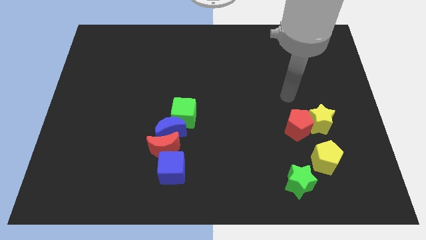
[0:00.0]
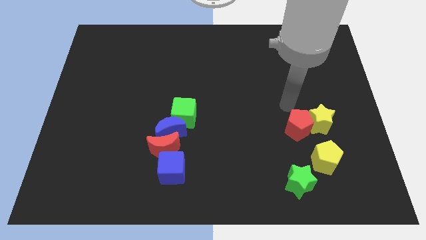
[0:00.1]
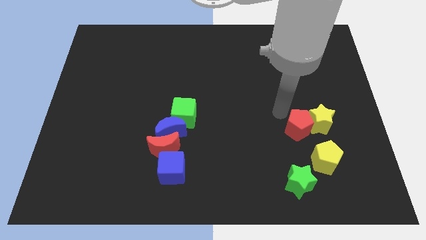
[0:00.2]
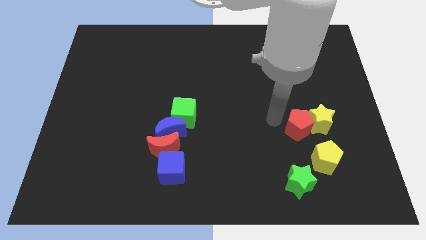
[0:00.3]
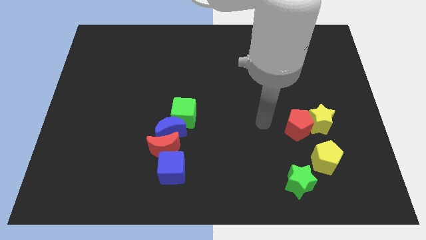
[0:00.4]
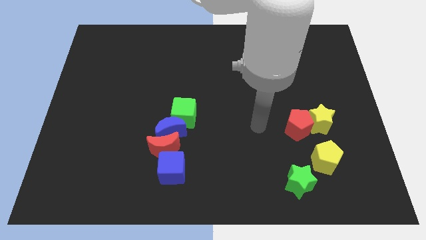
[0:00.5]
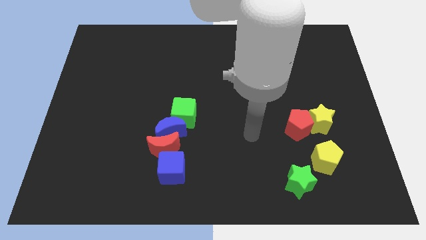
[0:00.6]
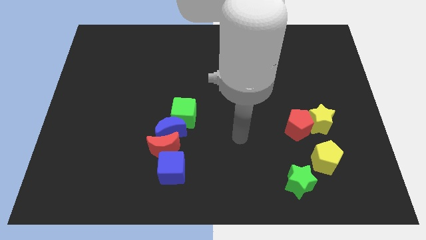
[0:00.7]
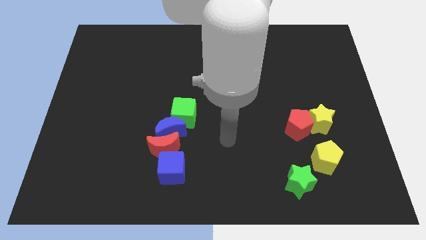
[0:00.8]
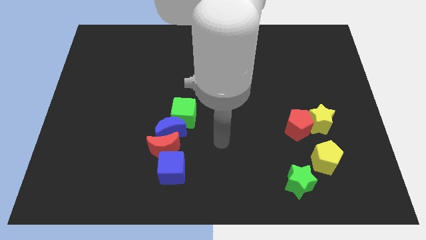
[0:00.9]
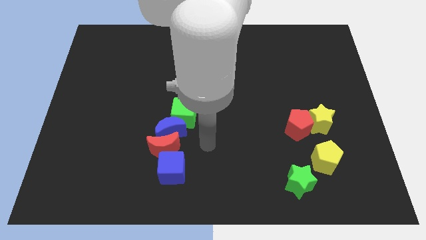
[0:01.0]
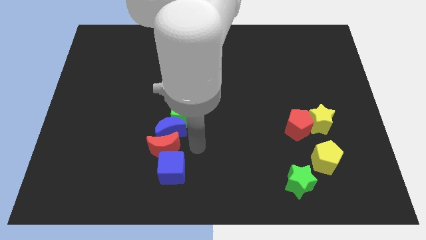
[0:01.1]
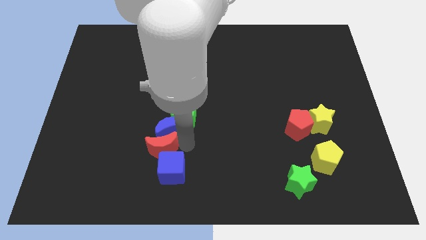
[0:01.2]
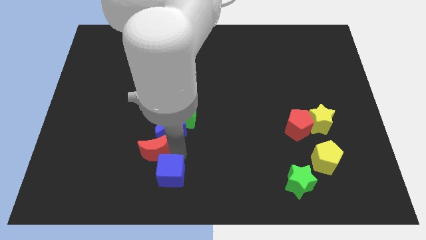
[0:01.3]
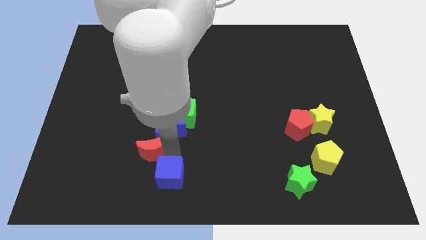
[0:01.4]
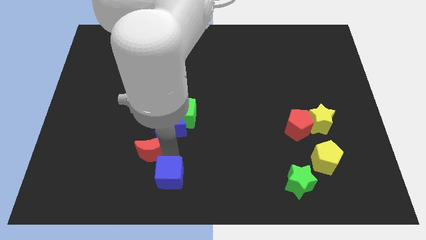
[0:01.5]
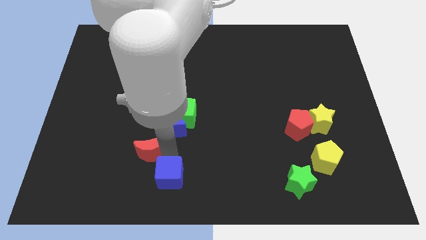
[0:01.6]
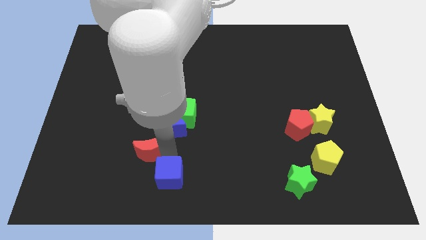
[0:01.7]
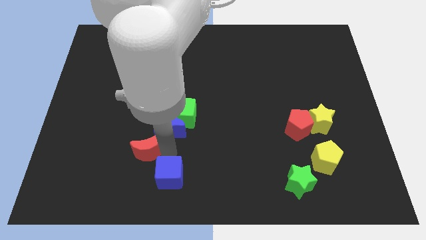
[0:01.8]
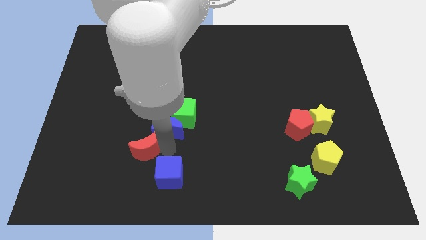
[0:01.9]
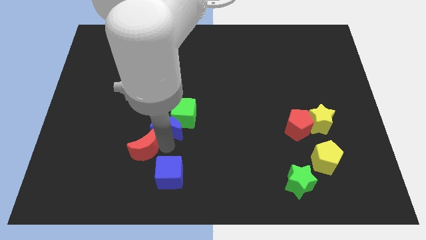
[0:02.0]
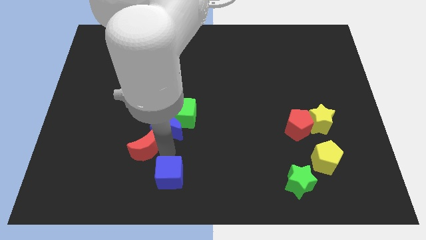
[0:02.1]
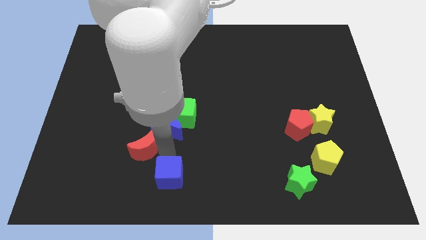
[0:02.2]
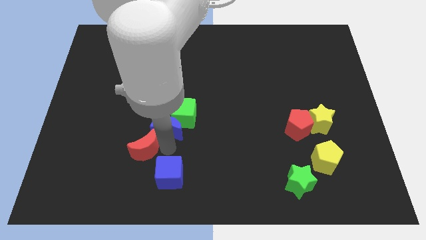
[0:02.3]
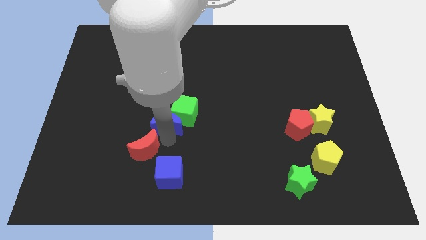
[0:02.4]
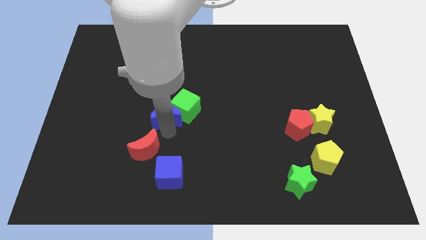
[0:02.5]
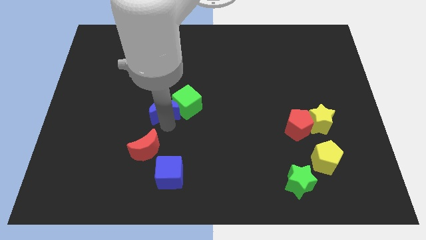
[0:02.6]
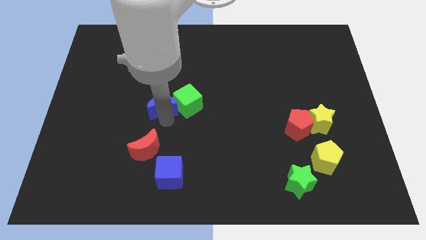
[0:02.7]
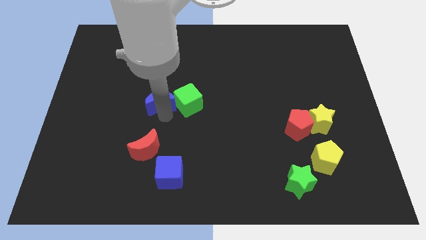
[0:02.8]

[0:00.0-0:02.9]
move the blue moon away from the red moon, green cube, and blue cube

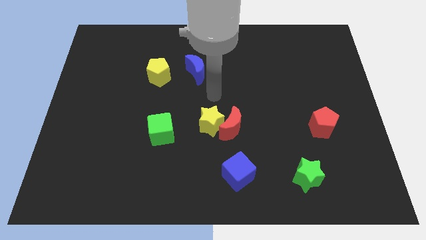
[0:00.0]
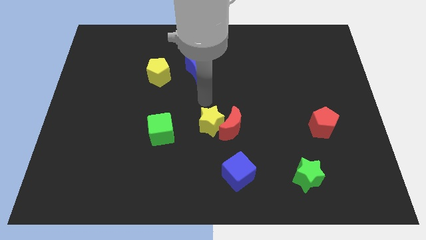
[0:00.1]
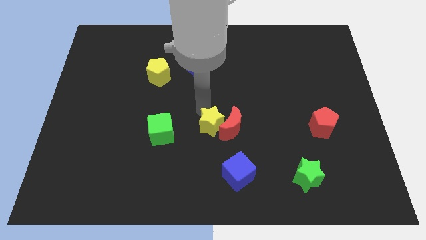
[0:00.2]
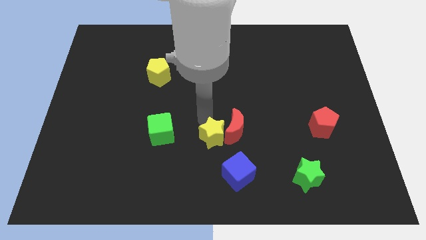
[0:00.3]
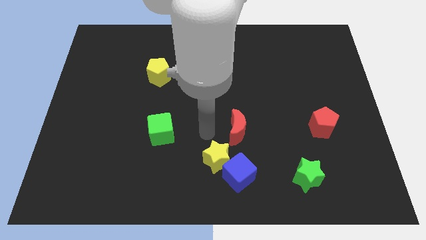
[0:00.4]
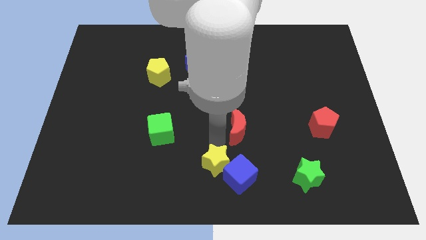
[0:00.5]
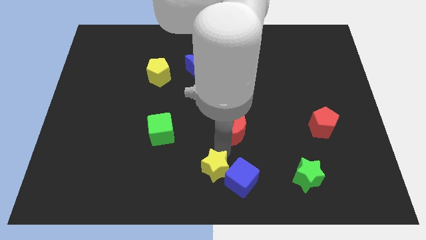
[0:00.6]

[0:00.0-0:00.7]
separate the red moon from the yellow star

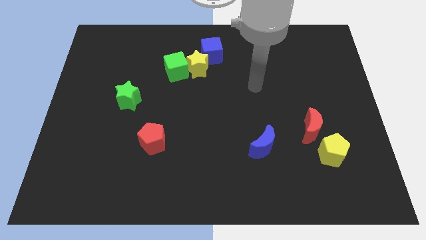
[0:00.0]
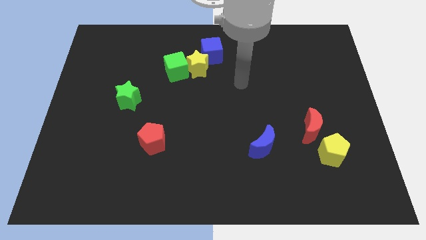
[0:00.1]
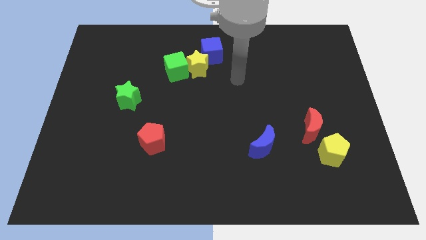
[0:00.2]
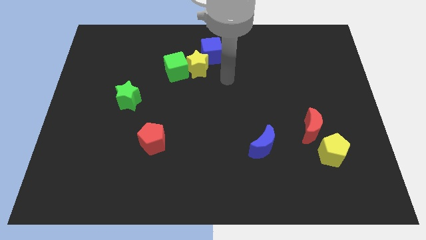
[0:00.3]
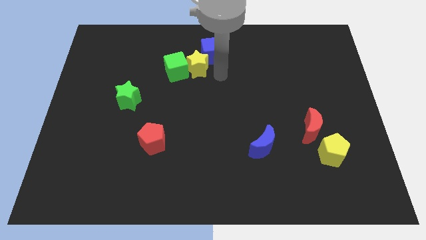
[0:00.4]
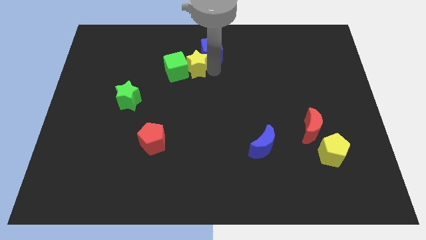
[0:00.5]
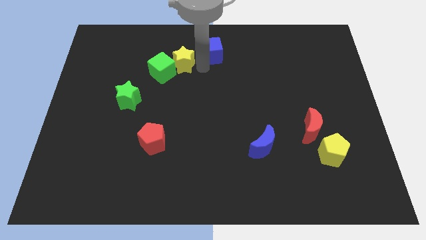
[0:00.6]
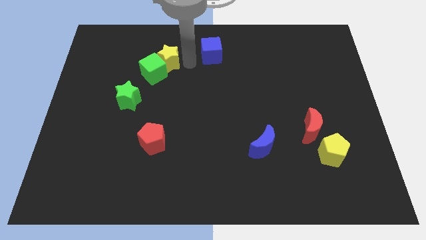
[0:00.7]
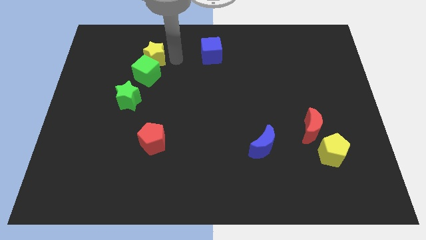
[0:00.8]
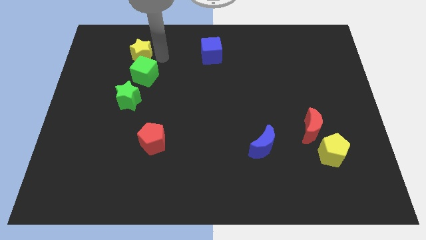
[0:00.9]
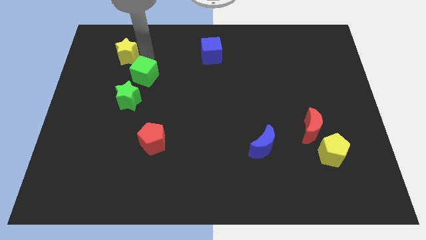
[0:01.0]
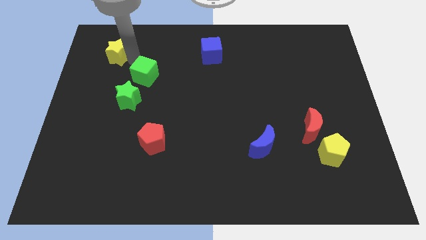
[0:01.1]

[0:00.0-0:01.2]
move the green cube away from the yellow star

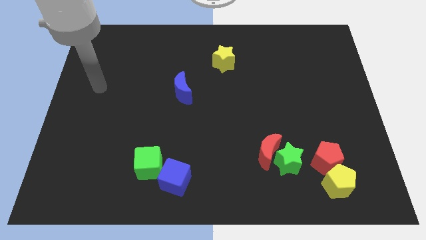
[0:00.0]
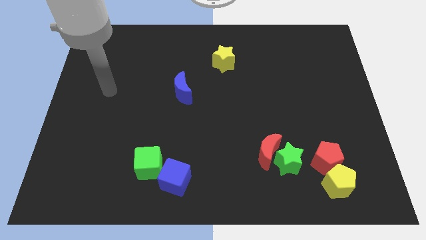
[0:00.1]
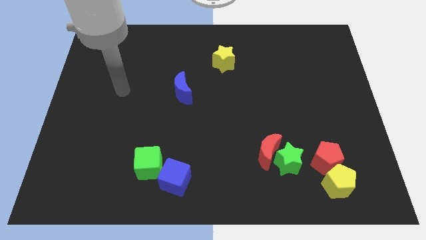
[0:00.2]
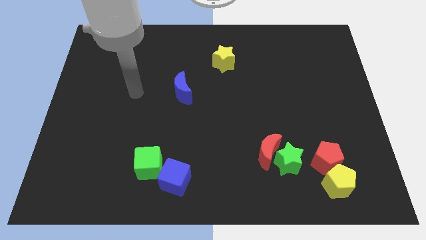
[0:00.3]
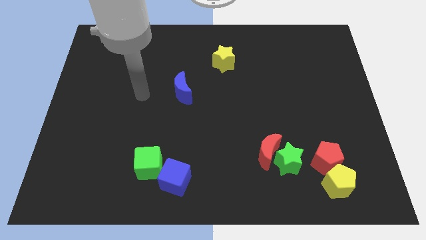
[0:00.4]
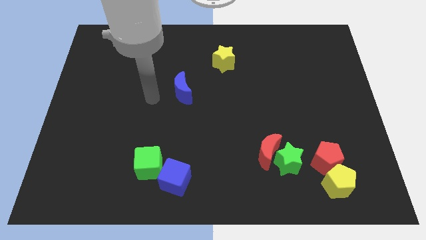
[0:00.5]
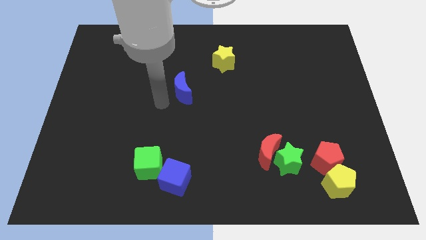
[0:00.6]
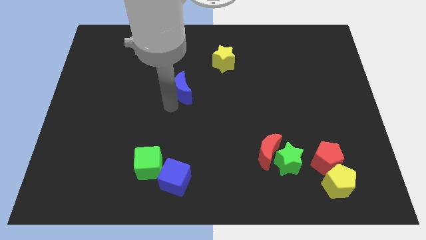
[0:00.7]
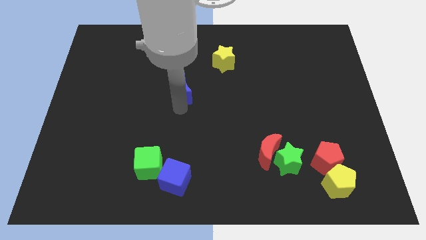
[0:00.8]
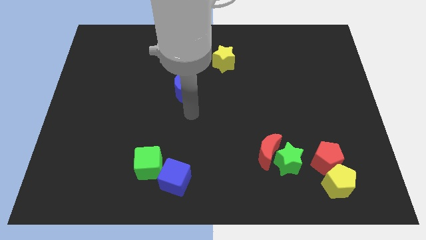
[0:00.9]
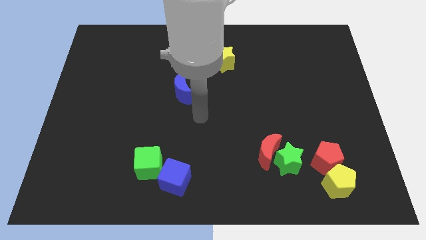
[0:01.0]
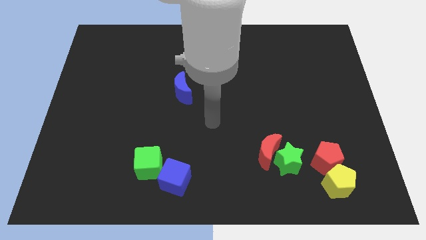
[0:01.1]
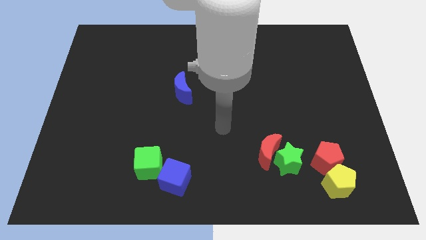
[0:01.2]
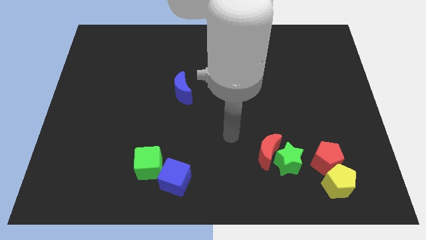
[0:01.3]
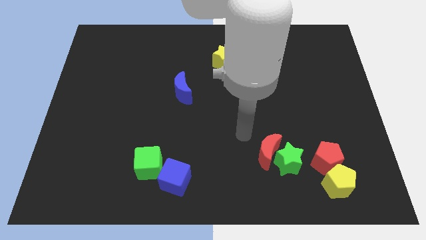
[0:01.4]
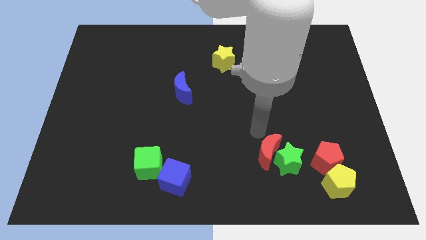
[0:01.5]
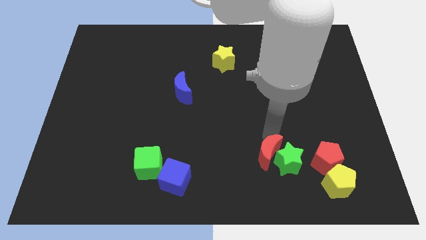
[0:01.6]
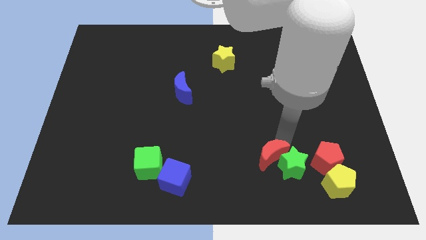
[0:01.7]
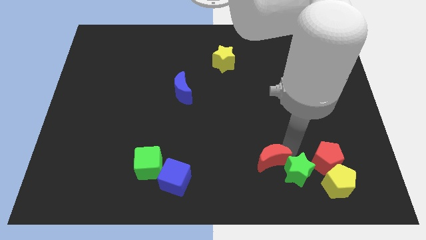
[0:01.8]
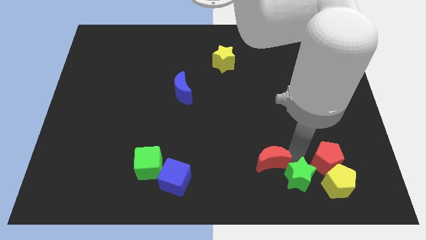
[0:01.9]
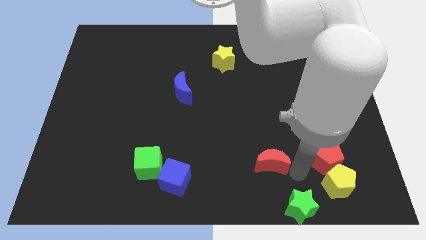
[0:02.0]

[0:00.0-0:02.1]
separate the red moon from the green star

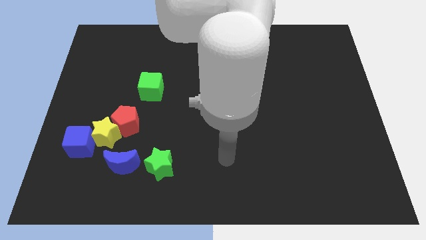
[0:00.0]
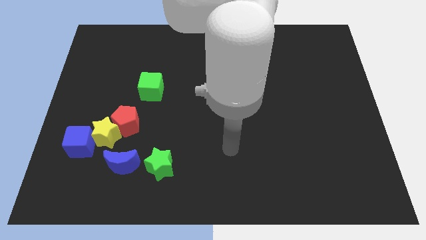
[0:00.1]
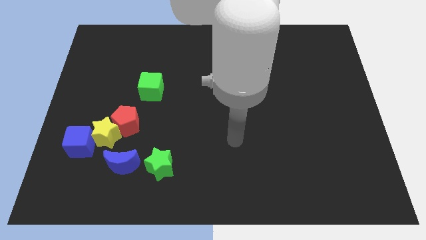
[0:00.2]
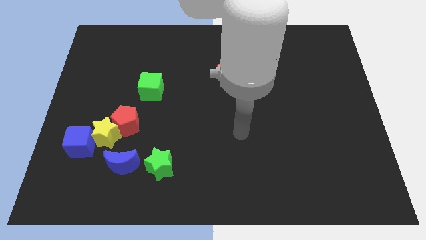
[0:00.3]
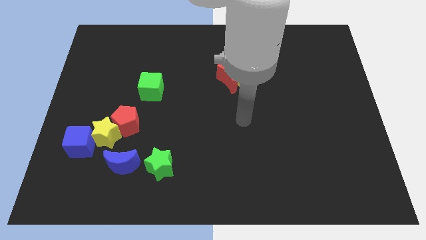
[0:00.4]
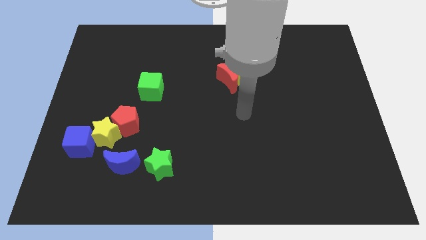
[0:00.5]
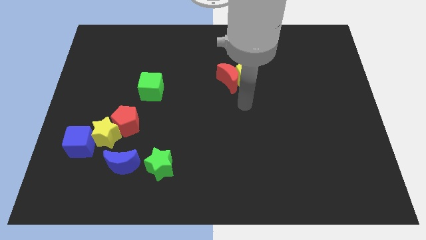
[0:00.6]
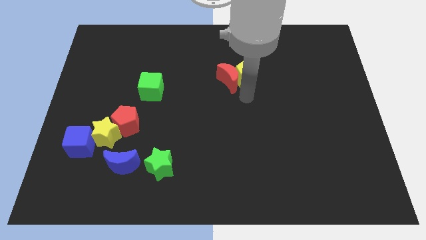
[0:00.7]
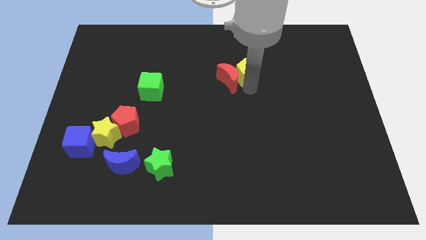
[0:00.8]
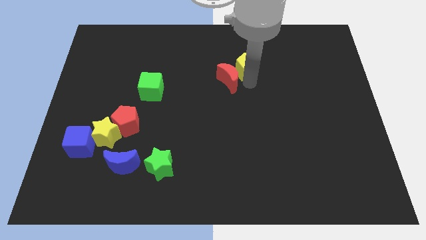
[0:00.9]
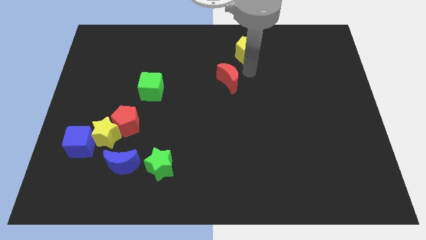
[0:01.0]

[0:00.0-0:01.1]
pull the red moon apart from the yellow pentagon

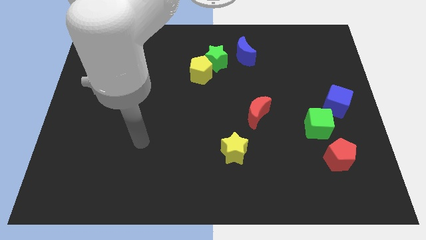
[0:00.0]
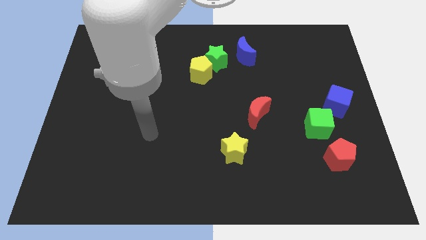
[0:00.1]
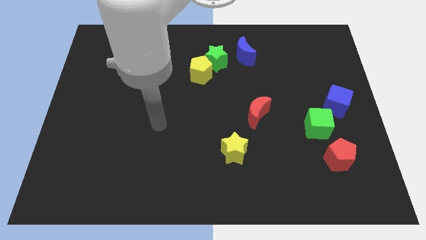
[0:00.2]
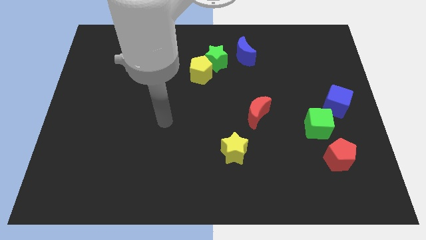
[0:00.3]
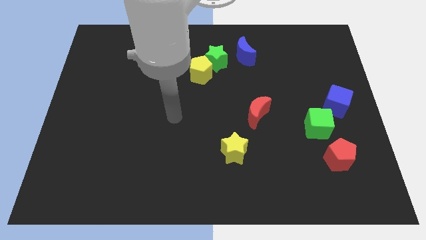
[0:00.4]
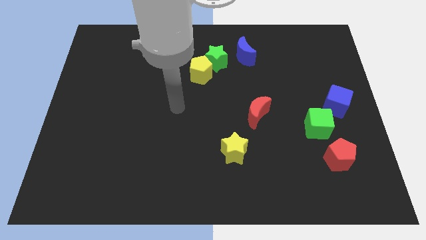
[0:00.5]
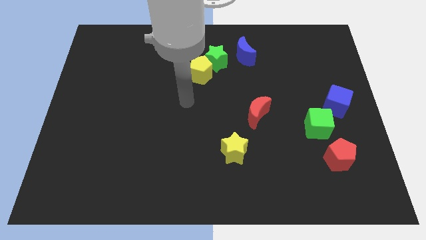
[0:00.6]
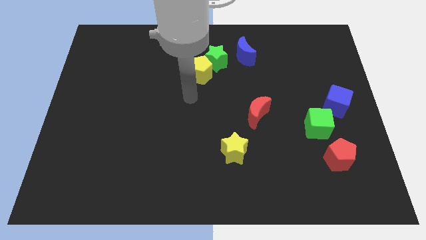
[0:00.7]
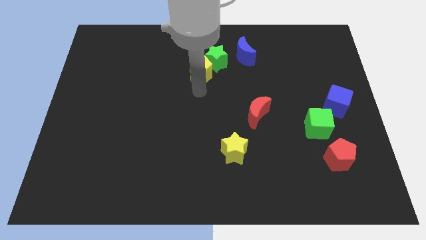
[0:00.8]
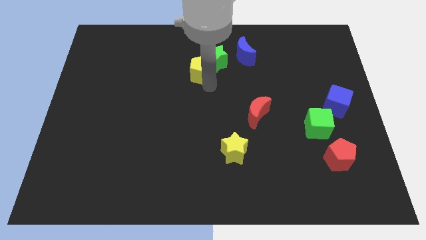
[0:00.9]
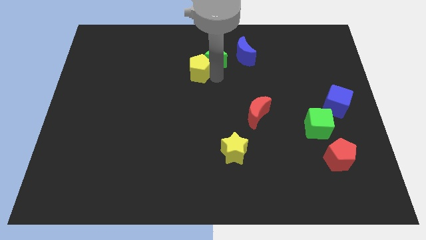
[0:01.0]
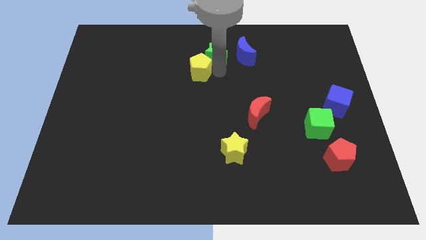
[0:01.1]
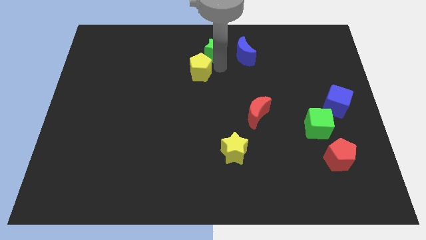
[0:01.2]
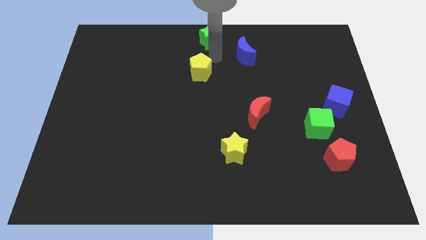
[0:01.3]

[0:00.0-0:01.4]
pull the yellow pentagon apart from the green star
